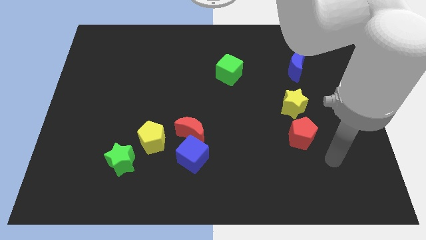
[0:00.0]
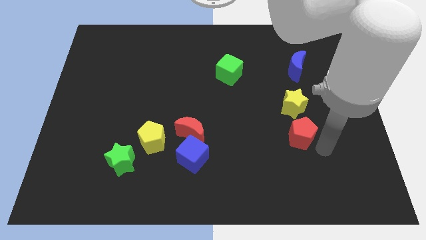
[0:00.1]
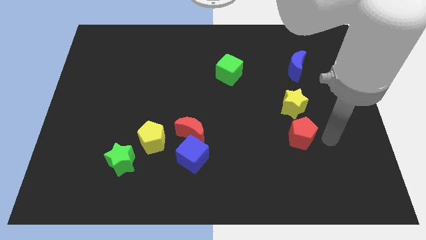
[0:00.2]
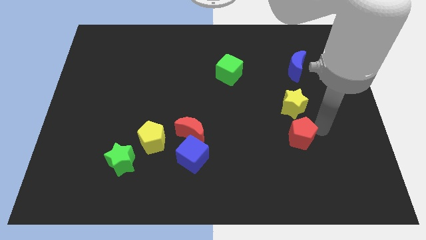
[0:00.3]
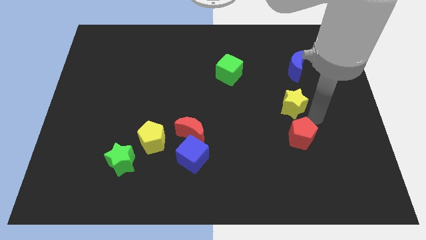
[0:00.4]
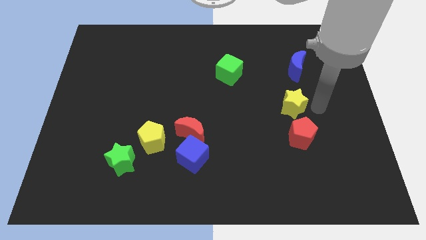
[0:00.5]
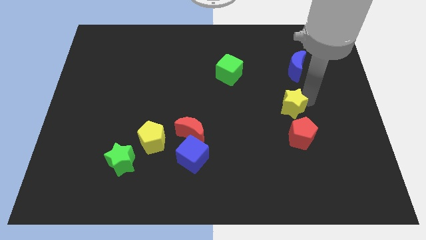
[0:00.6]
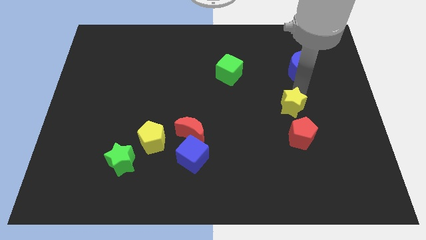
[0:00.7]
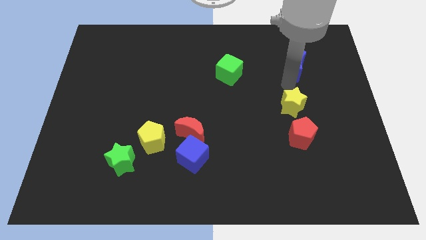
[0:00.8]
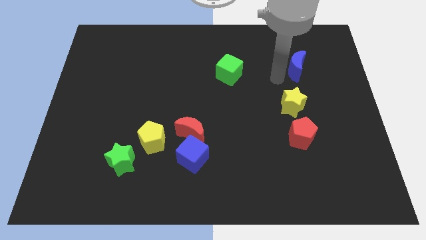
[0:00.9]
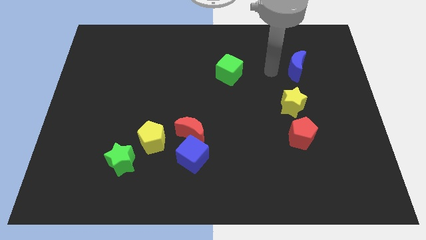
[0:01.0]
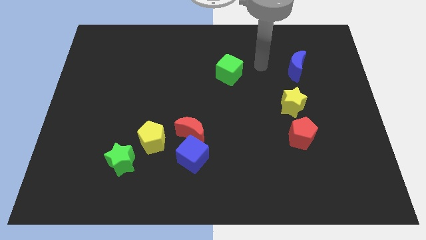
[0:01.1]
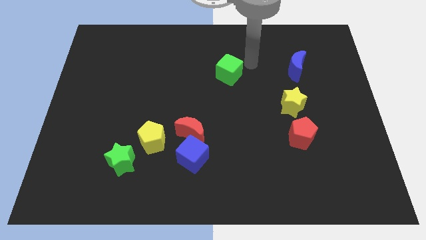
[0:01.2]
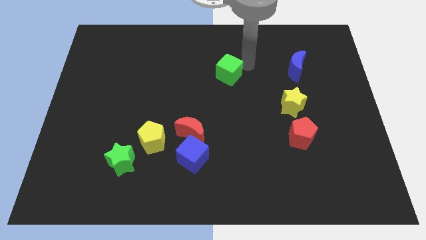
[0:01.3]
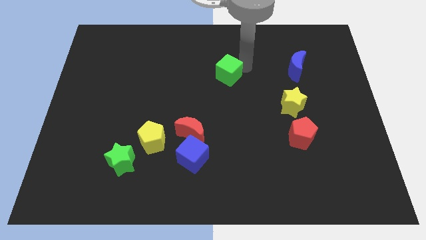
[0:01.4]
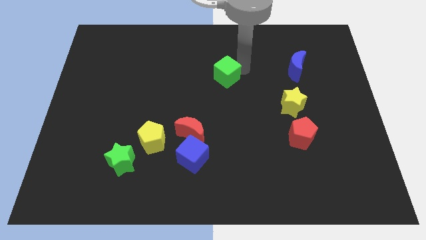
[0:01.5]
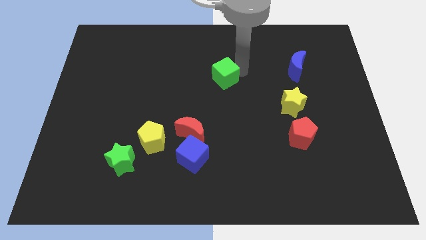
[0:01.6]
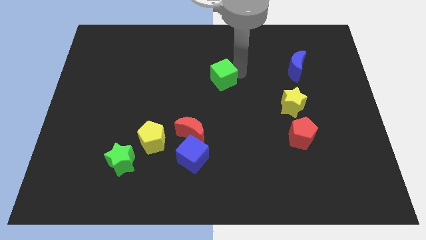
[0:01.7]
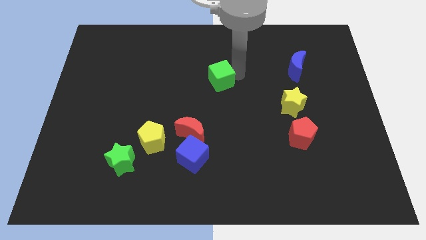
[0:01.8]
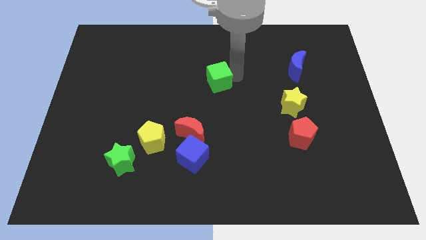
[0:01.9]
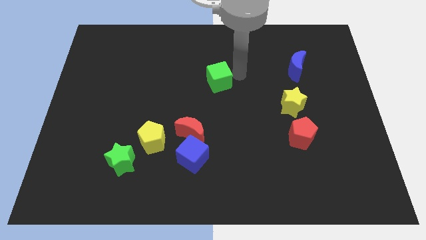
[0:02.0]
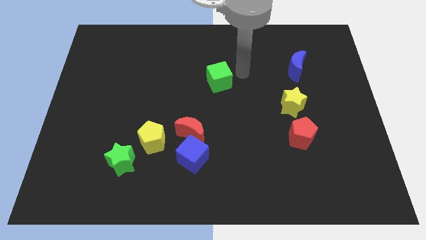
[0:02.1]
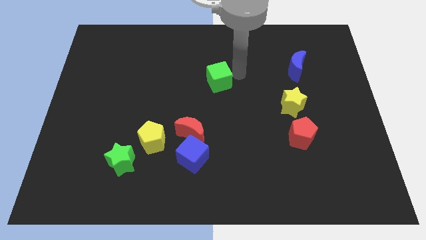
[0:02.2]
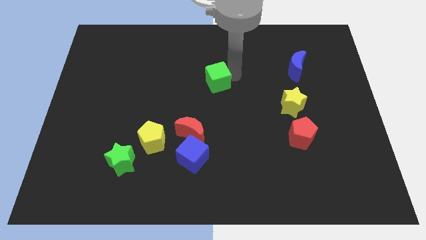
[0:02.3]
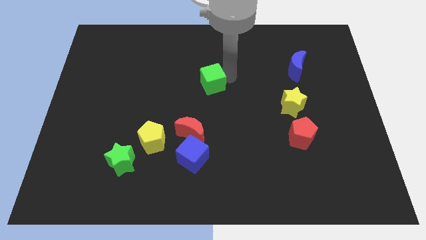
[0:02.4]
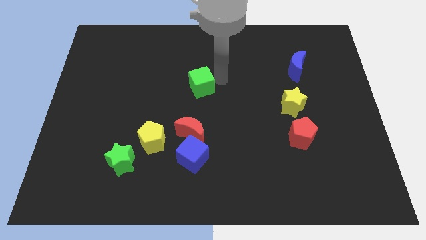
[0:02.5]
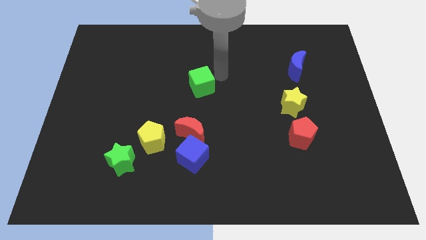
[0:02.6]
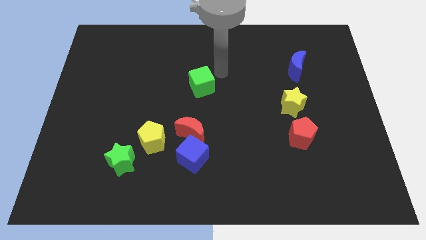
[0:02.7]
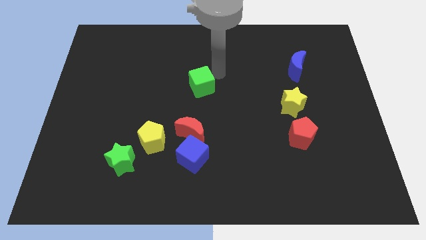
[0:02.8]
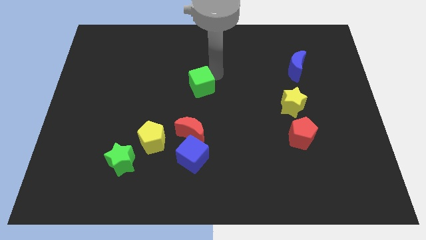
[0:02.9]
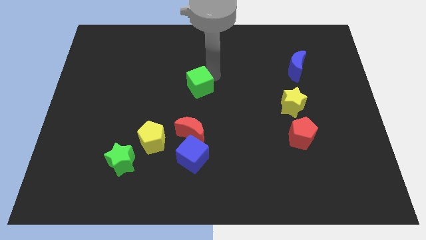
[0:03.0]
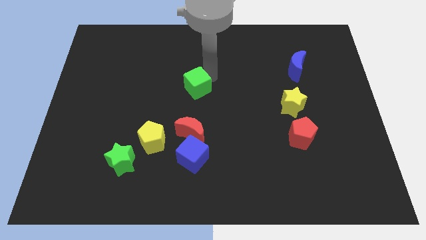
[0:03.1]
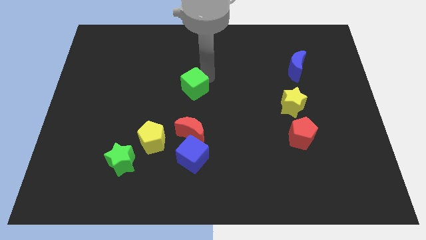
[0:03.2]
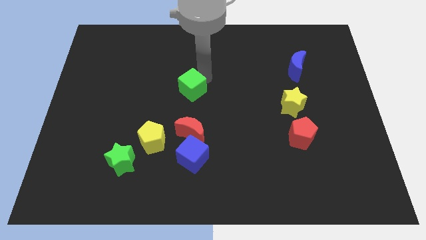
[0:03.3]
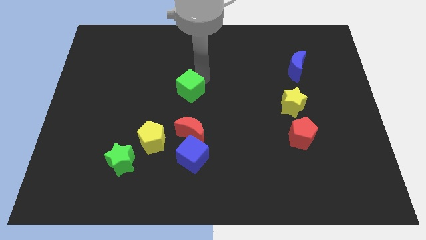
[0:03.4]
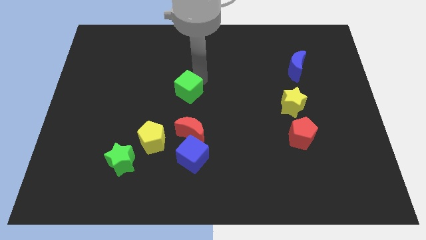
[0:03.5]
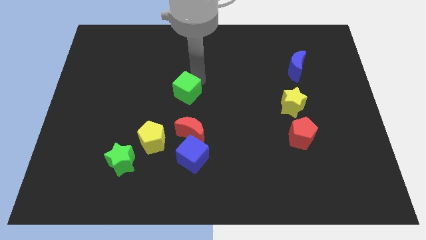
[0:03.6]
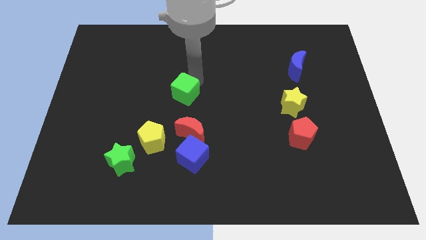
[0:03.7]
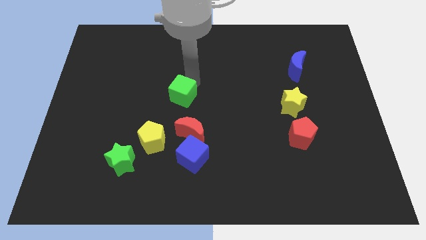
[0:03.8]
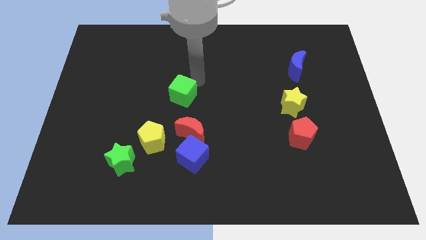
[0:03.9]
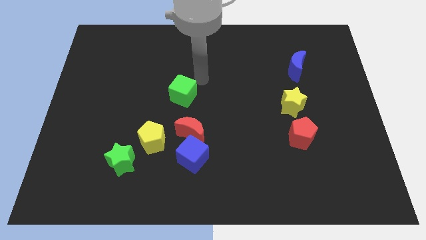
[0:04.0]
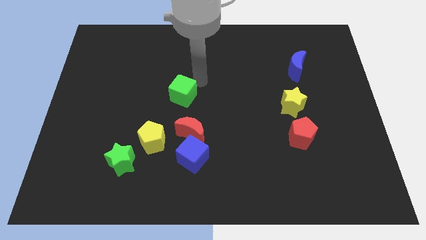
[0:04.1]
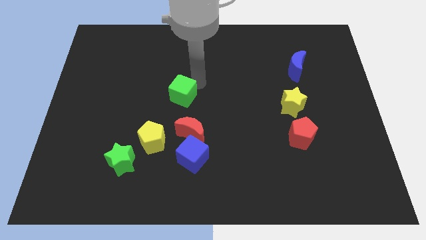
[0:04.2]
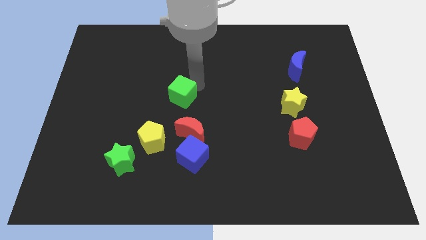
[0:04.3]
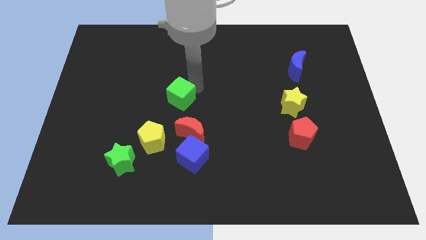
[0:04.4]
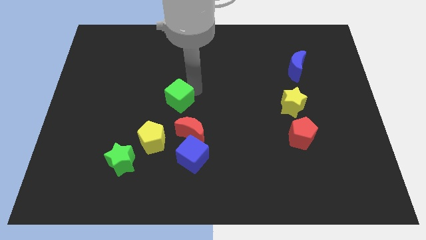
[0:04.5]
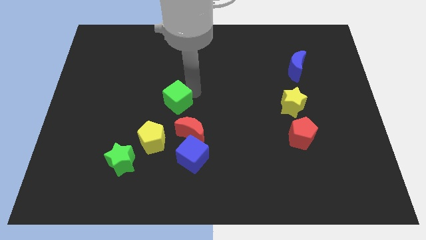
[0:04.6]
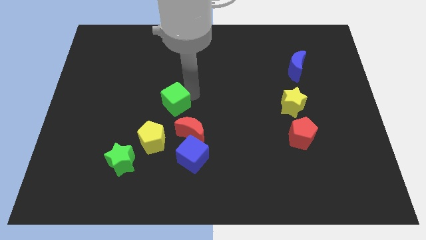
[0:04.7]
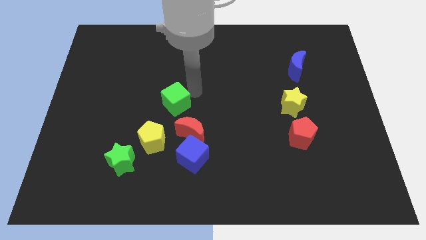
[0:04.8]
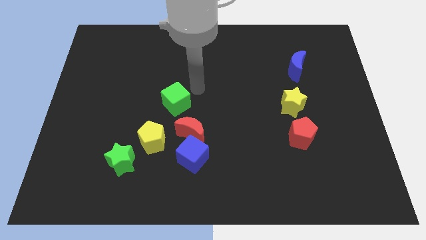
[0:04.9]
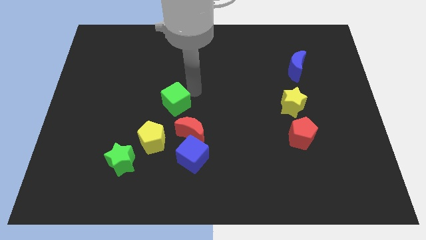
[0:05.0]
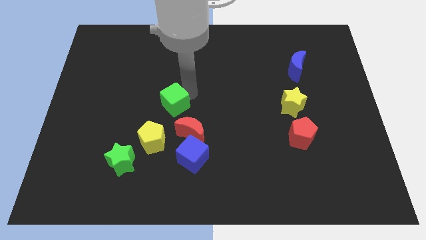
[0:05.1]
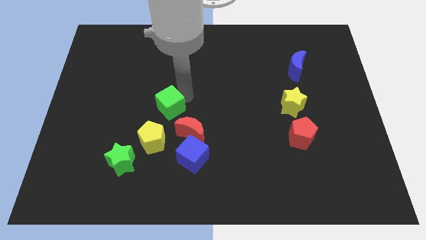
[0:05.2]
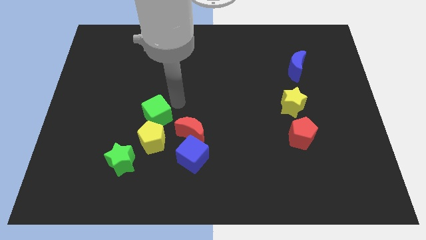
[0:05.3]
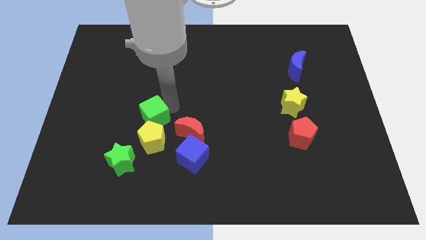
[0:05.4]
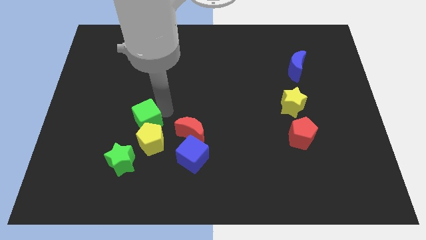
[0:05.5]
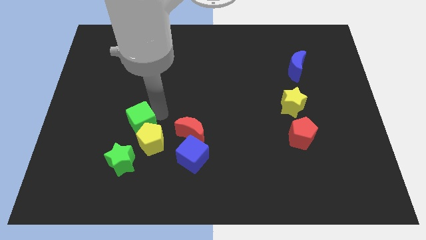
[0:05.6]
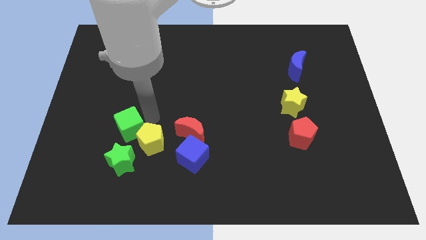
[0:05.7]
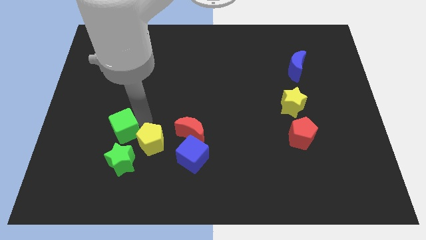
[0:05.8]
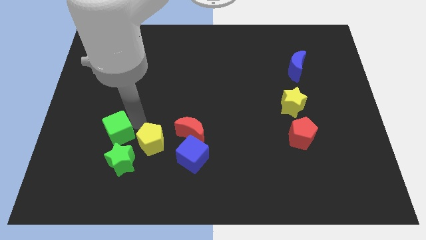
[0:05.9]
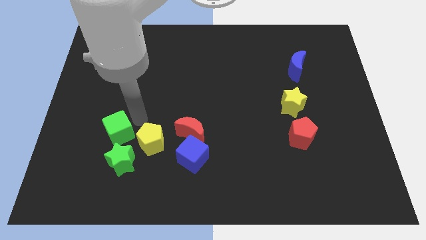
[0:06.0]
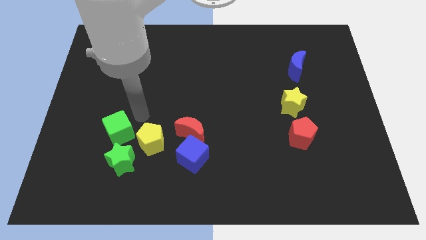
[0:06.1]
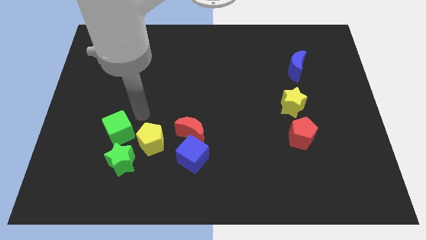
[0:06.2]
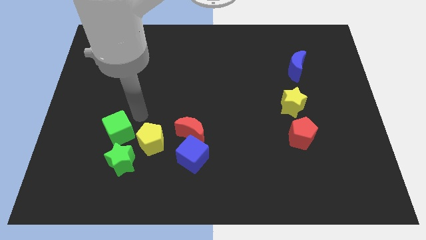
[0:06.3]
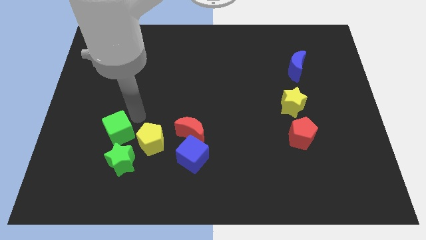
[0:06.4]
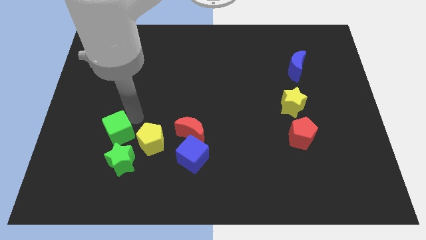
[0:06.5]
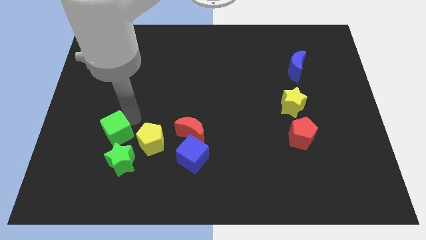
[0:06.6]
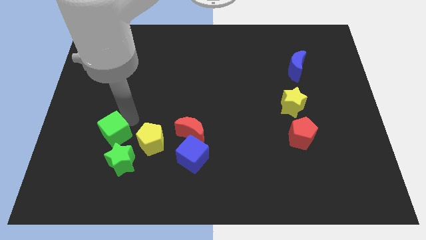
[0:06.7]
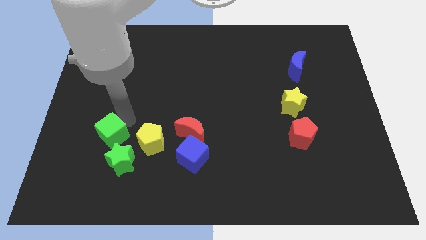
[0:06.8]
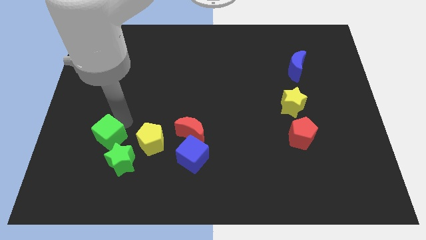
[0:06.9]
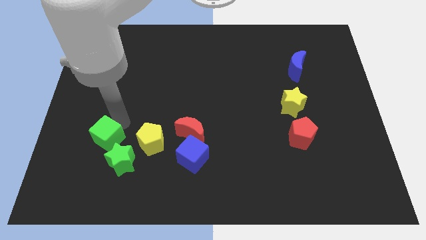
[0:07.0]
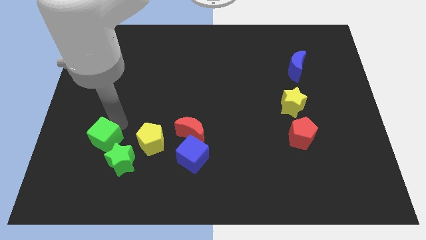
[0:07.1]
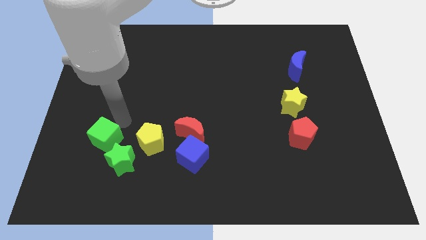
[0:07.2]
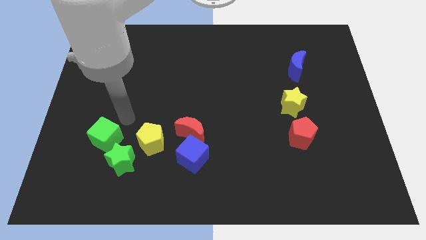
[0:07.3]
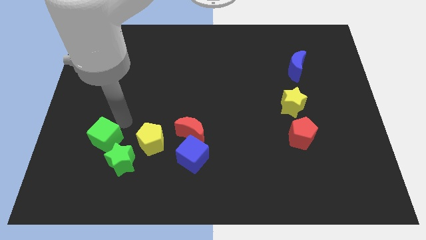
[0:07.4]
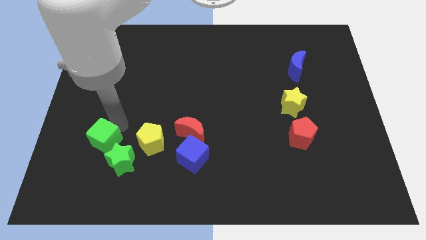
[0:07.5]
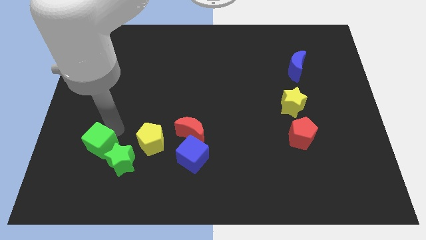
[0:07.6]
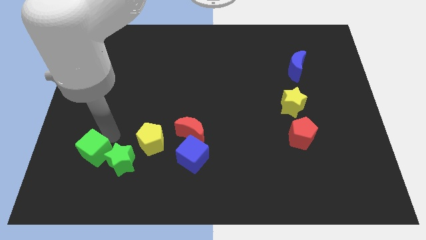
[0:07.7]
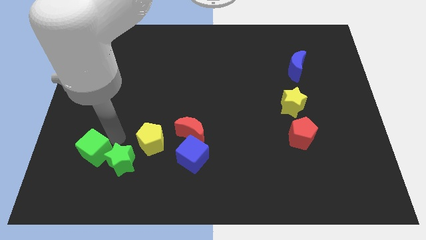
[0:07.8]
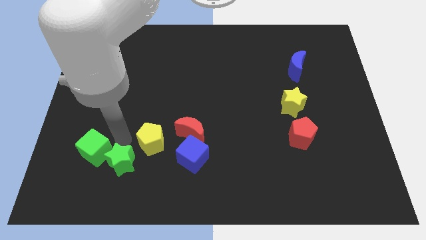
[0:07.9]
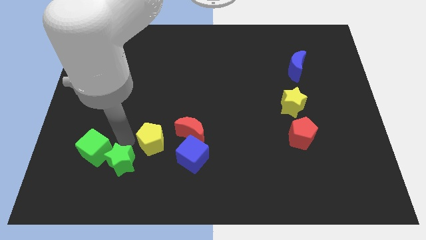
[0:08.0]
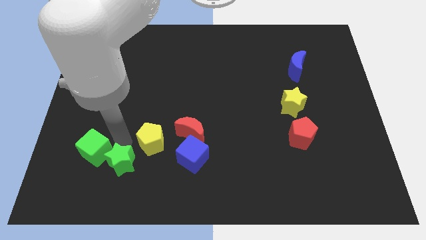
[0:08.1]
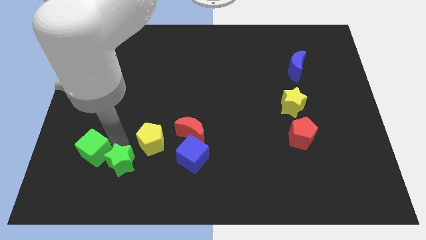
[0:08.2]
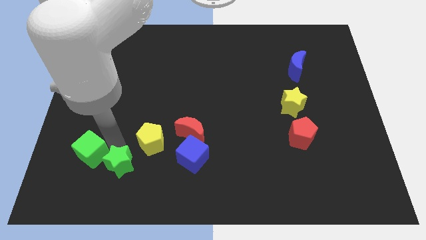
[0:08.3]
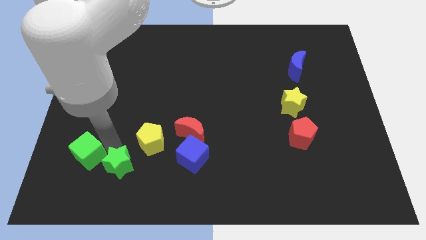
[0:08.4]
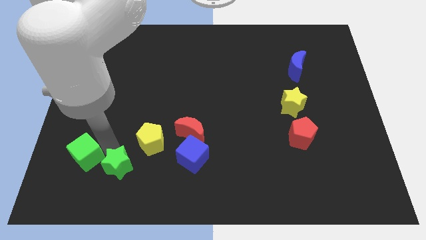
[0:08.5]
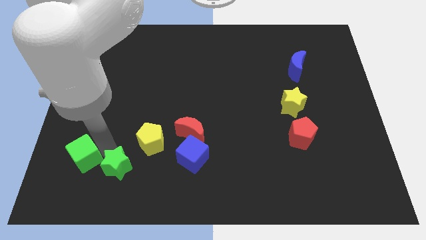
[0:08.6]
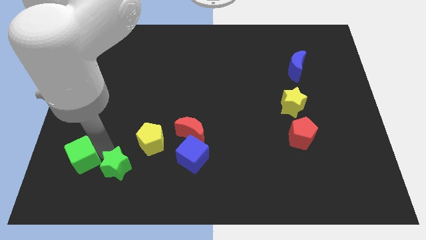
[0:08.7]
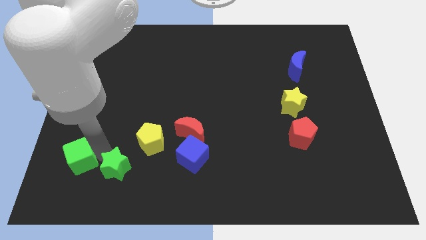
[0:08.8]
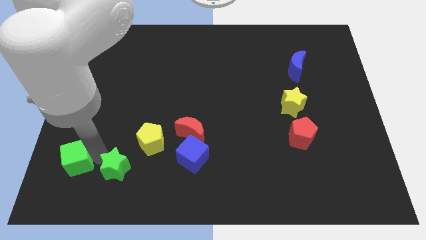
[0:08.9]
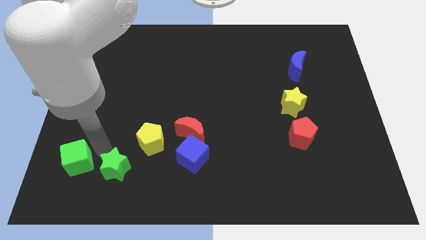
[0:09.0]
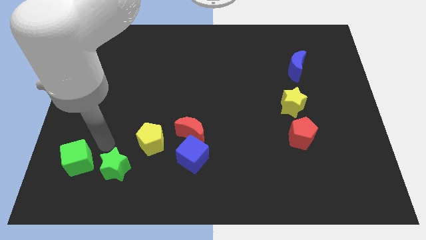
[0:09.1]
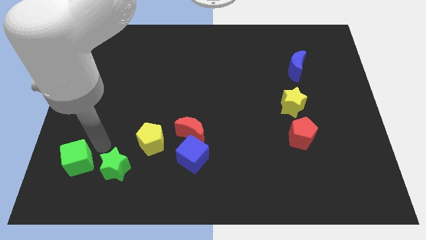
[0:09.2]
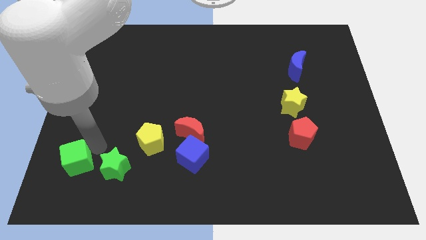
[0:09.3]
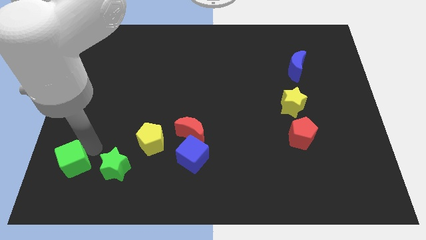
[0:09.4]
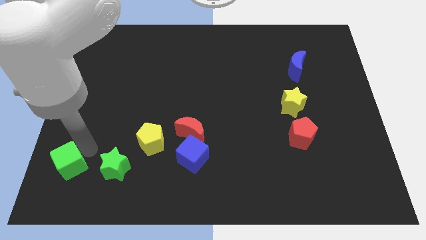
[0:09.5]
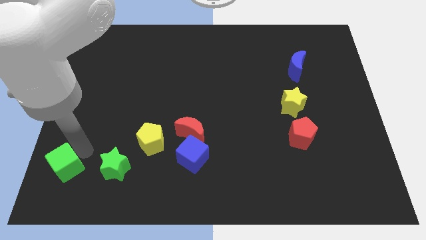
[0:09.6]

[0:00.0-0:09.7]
move the green cube to the bottom left corner
